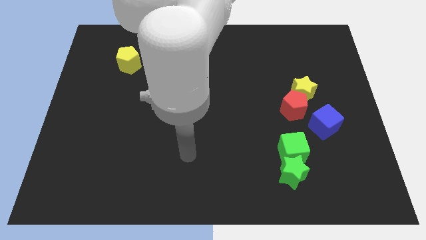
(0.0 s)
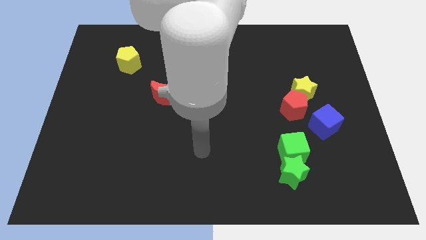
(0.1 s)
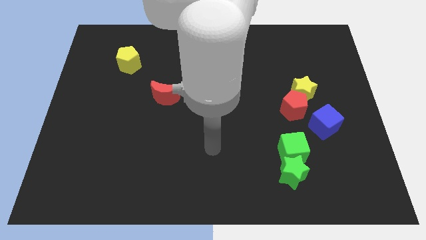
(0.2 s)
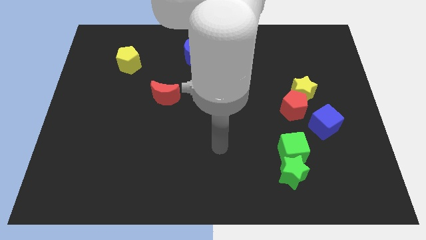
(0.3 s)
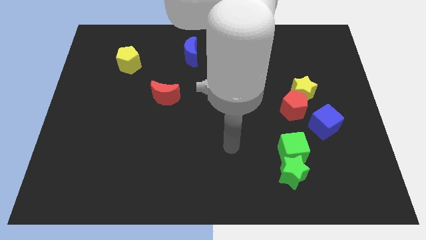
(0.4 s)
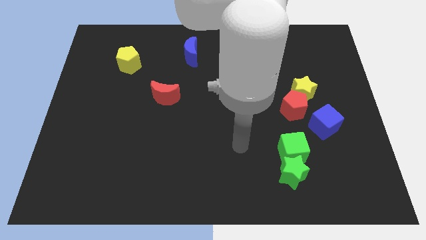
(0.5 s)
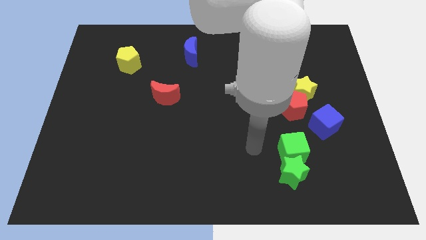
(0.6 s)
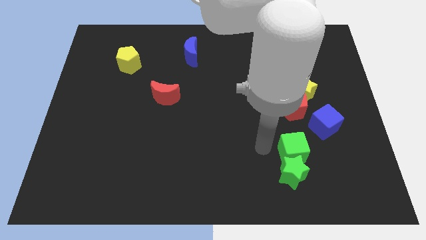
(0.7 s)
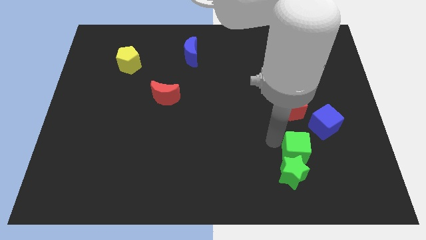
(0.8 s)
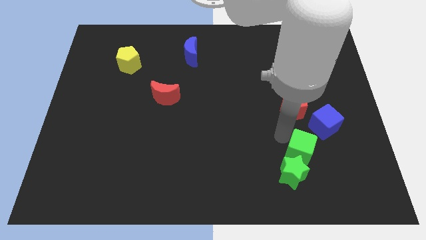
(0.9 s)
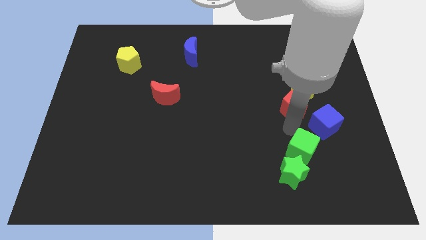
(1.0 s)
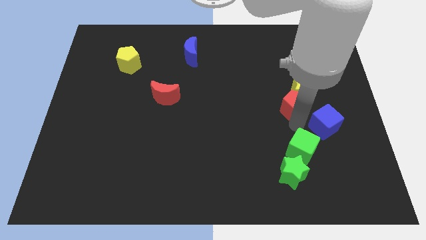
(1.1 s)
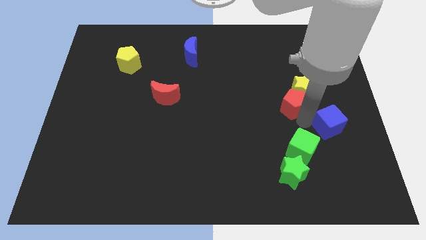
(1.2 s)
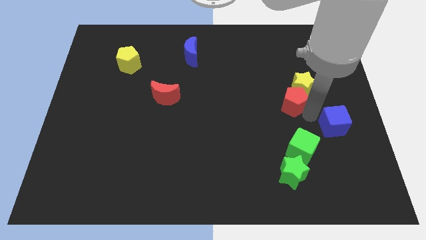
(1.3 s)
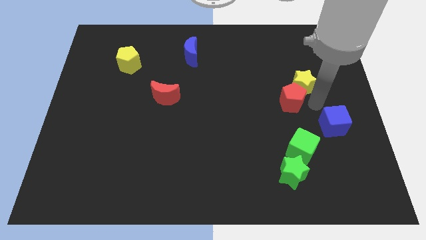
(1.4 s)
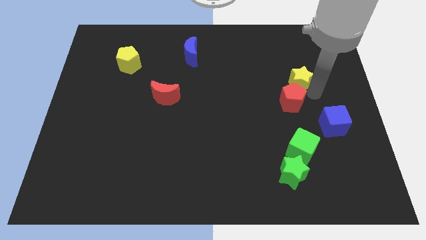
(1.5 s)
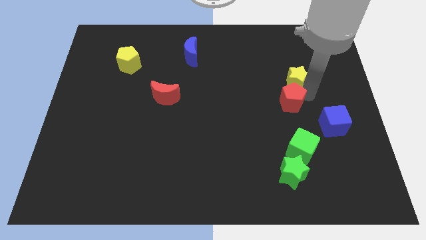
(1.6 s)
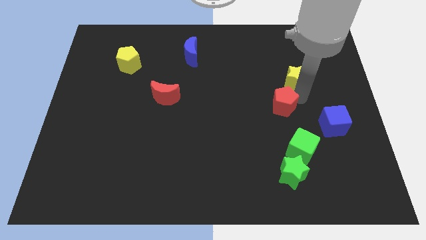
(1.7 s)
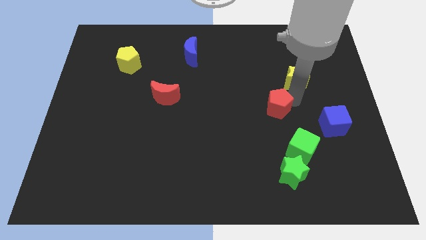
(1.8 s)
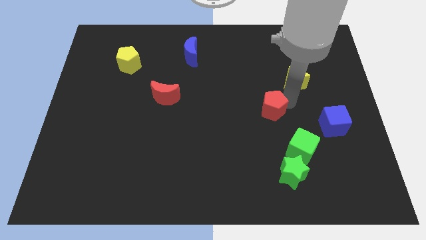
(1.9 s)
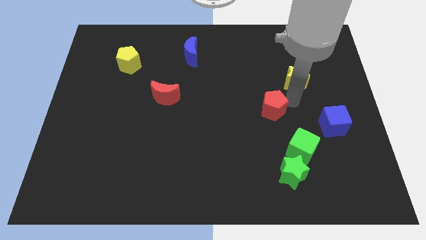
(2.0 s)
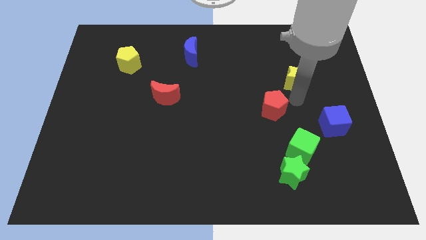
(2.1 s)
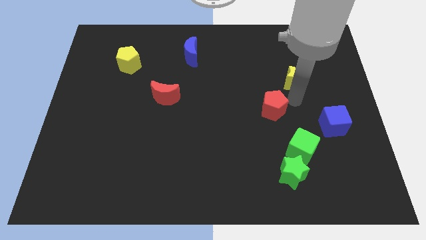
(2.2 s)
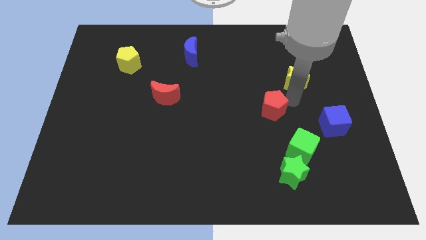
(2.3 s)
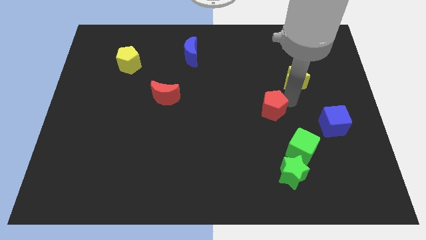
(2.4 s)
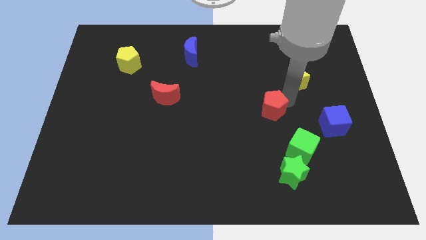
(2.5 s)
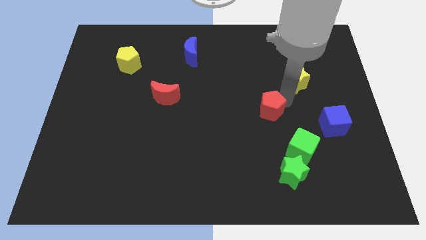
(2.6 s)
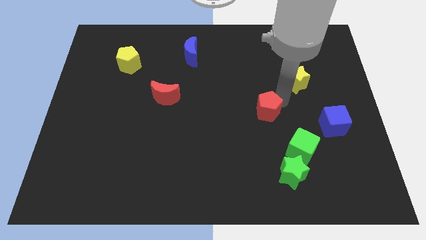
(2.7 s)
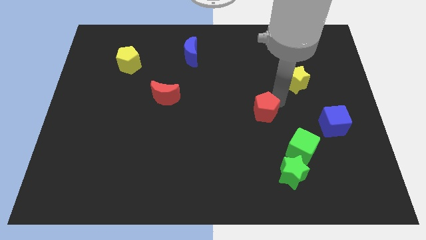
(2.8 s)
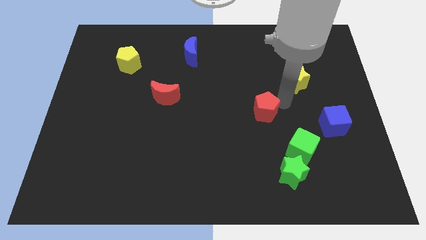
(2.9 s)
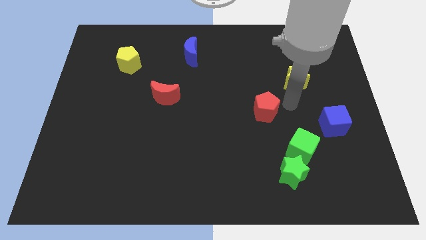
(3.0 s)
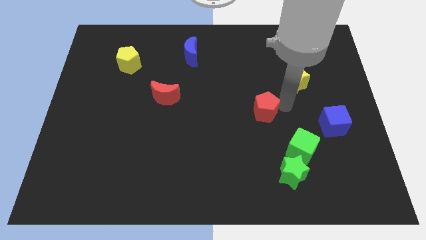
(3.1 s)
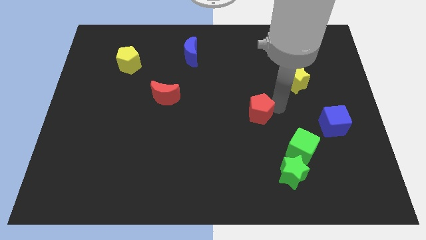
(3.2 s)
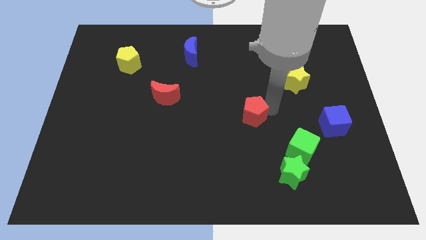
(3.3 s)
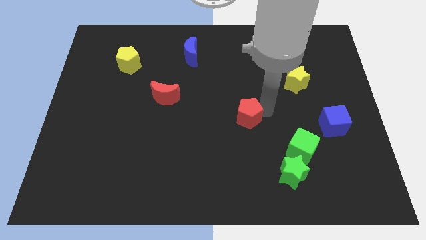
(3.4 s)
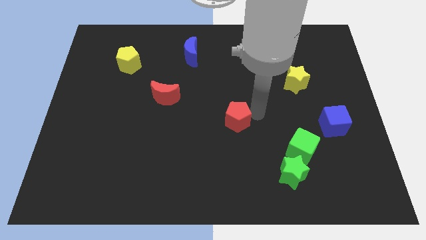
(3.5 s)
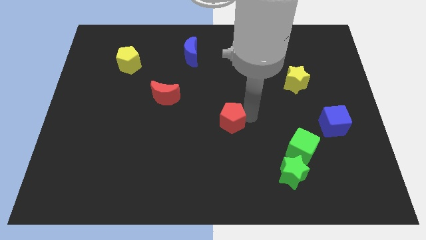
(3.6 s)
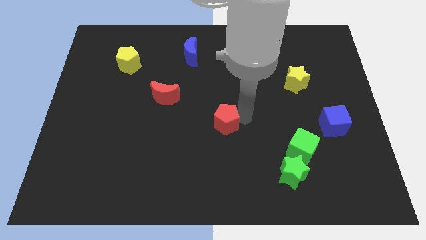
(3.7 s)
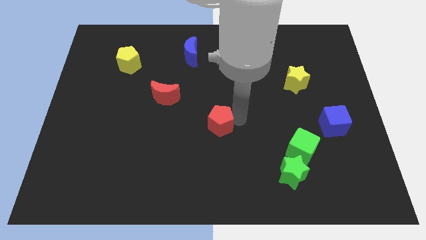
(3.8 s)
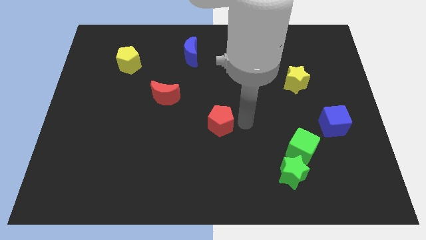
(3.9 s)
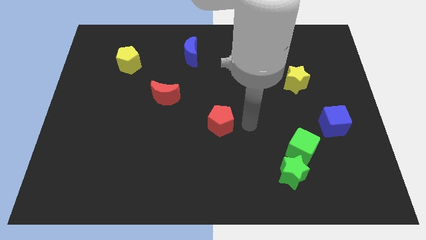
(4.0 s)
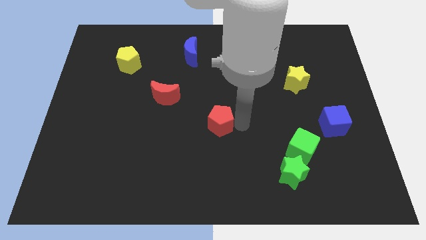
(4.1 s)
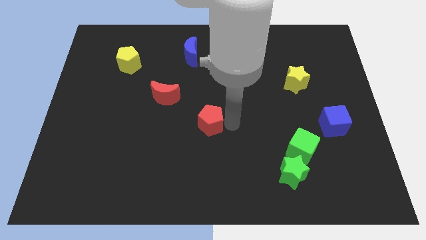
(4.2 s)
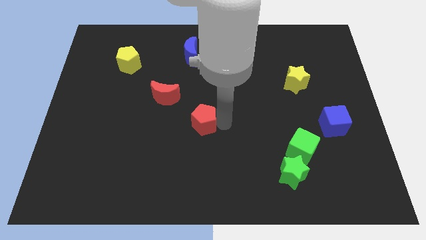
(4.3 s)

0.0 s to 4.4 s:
slide the red pentagon to the left

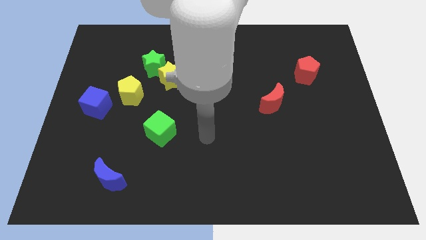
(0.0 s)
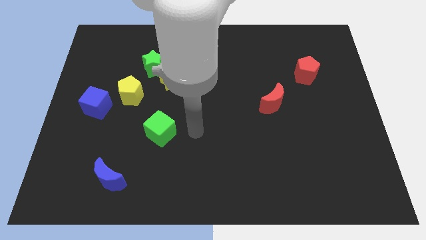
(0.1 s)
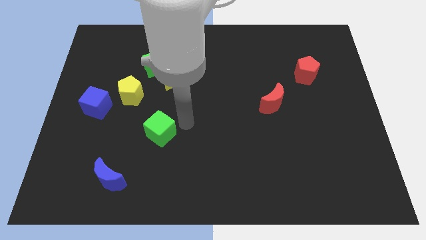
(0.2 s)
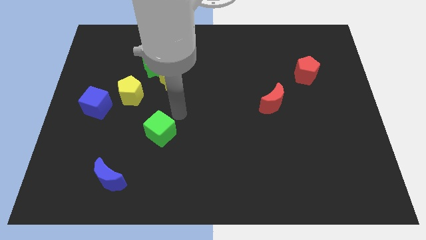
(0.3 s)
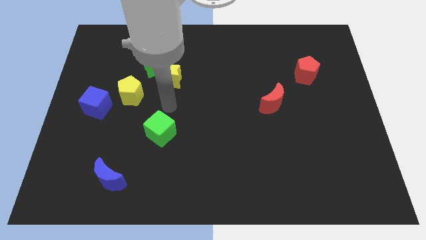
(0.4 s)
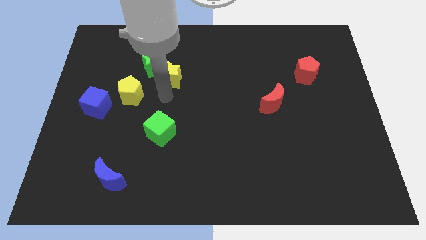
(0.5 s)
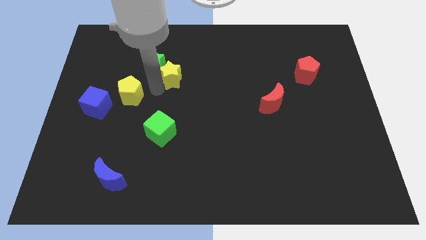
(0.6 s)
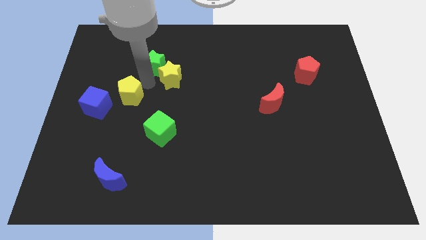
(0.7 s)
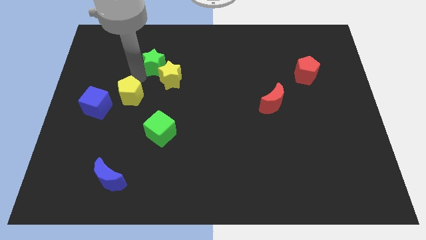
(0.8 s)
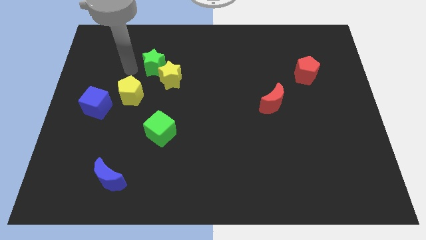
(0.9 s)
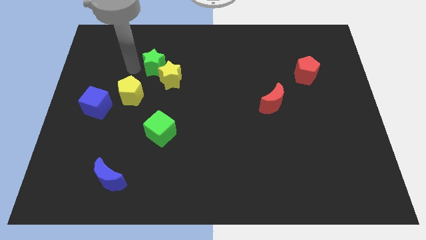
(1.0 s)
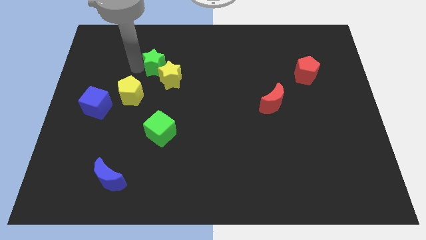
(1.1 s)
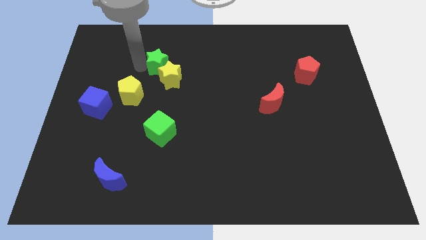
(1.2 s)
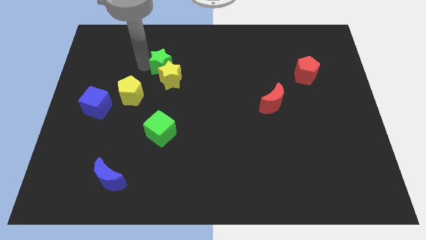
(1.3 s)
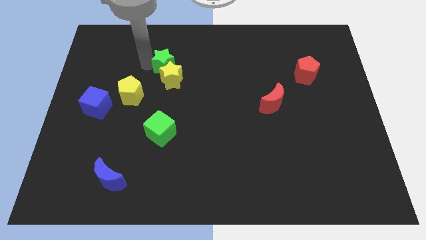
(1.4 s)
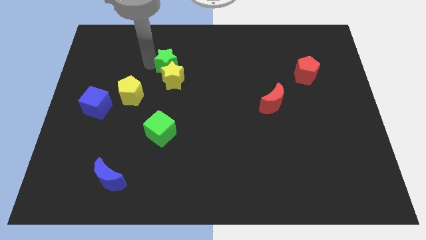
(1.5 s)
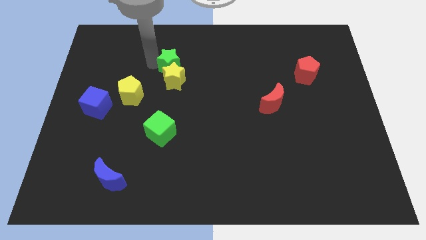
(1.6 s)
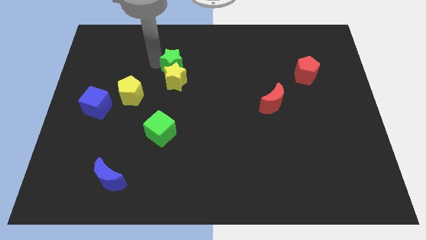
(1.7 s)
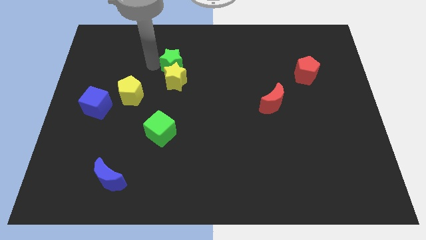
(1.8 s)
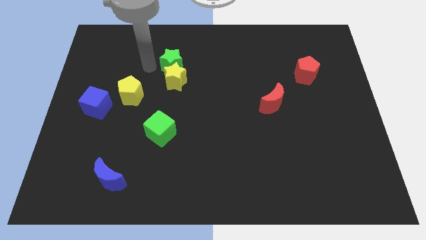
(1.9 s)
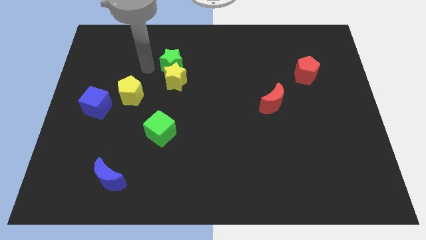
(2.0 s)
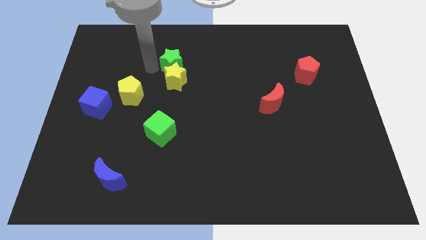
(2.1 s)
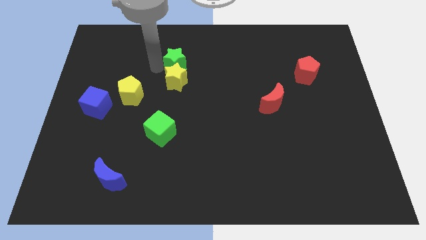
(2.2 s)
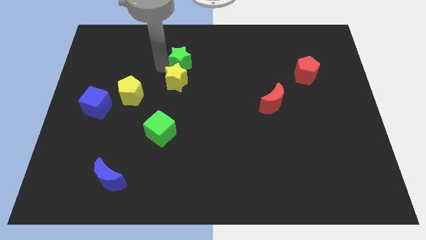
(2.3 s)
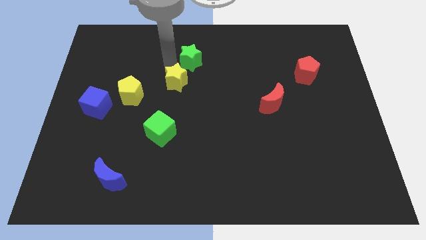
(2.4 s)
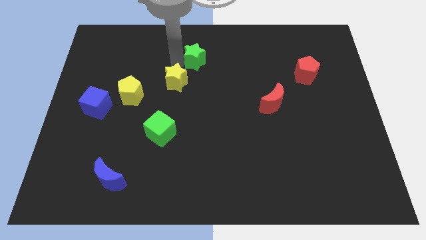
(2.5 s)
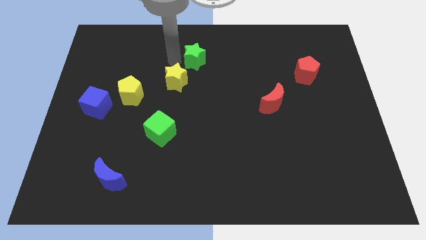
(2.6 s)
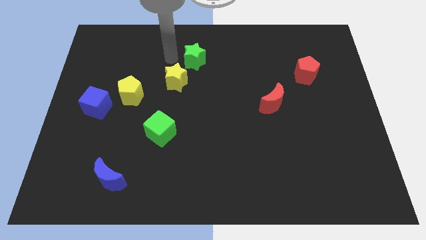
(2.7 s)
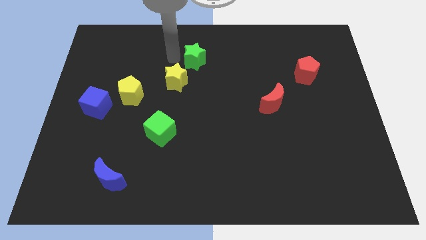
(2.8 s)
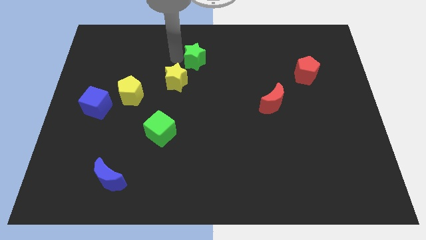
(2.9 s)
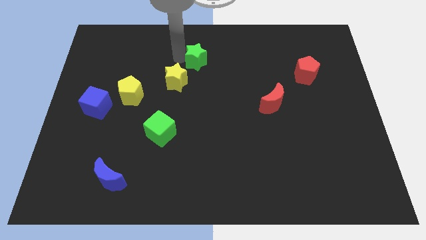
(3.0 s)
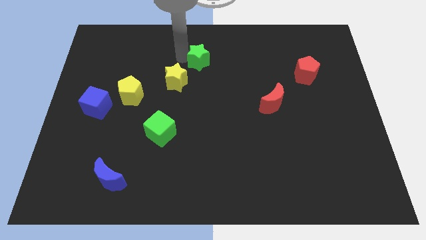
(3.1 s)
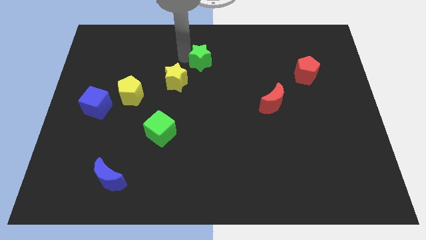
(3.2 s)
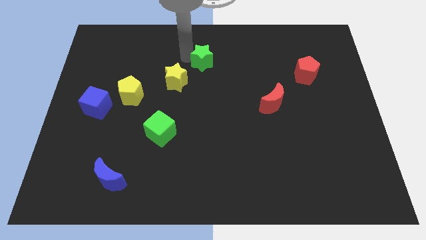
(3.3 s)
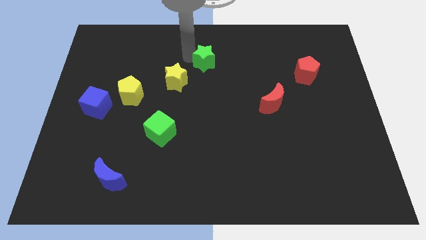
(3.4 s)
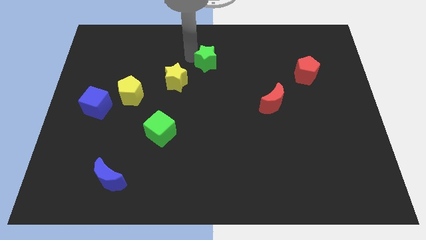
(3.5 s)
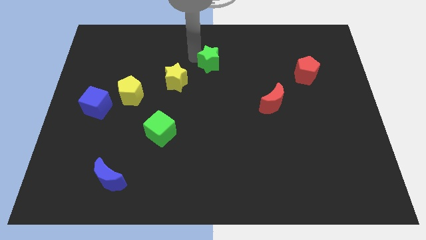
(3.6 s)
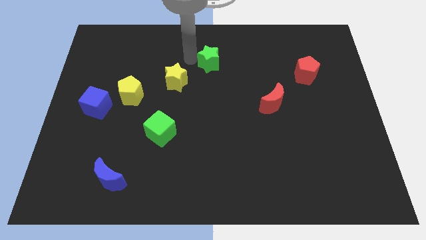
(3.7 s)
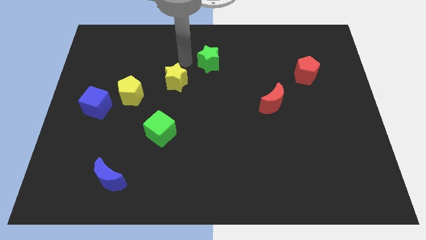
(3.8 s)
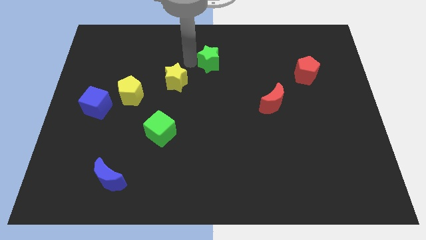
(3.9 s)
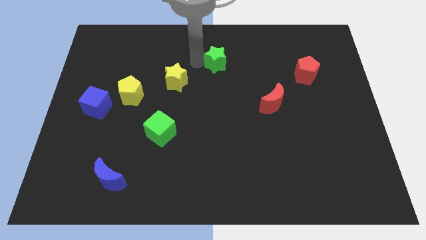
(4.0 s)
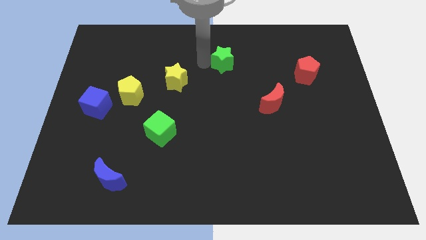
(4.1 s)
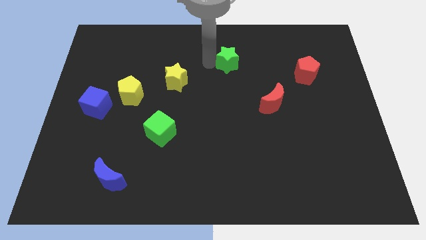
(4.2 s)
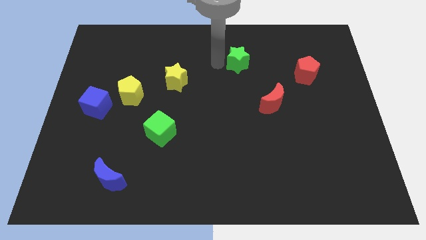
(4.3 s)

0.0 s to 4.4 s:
slide the green star to the right
